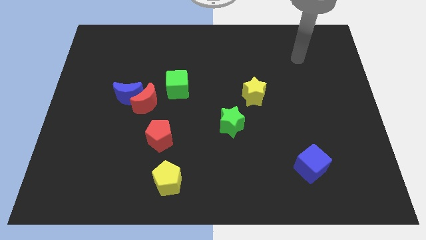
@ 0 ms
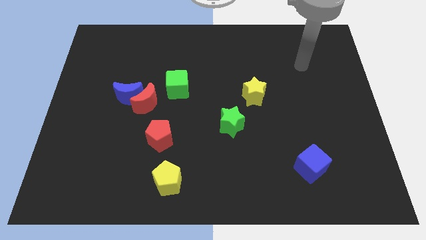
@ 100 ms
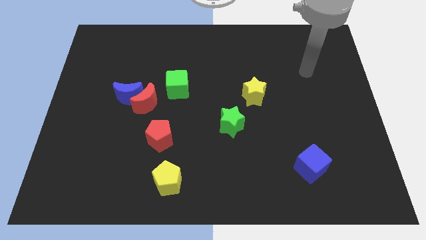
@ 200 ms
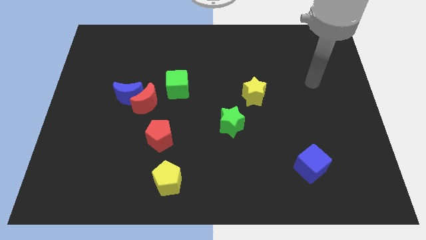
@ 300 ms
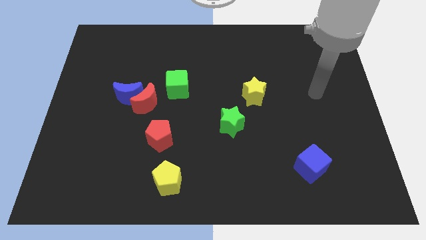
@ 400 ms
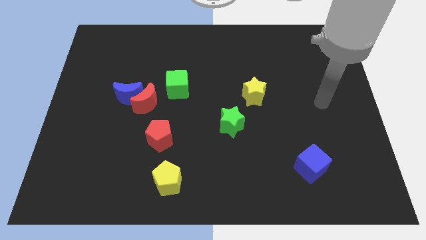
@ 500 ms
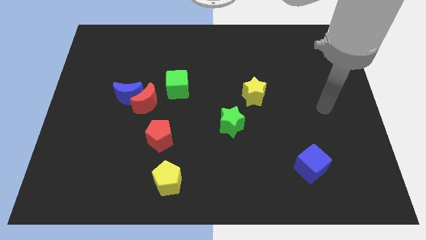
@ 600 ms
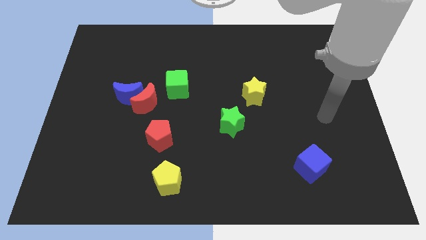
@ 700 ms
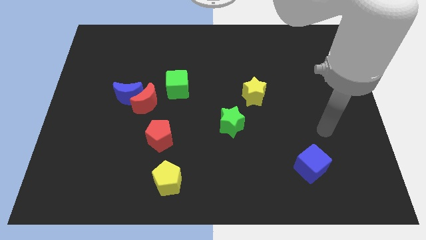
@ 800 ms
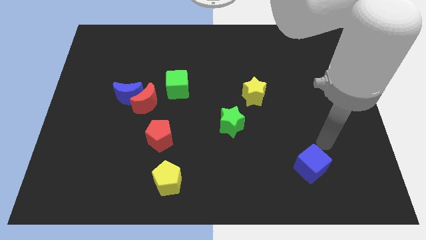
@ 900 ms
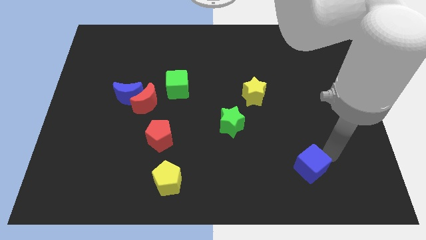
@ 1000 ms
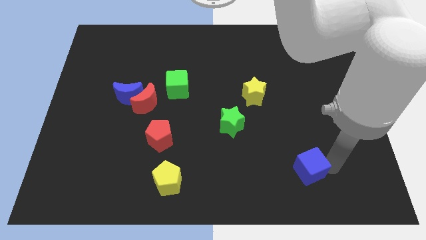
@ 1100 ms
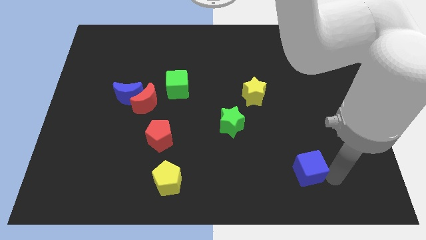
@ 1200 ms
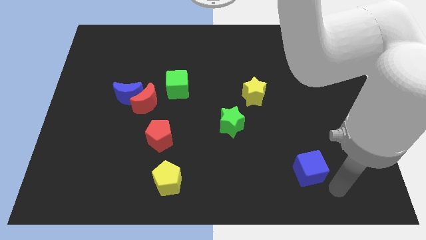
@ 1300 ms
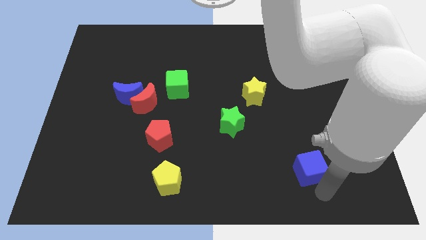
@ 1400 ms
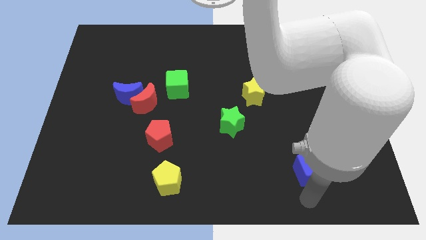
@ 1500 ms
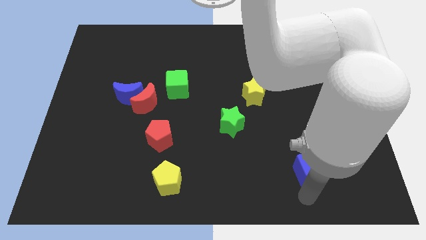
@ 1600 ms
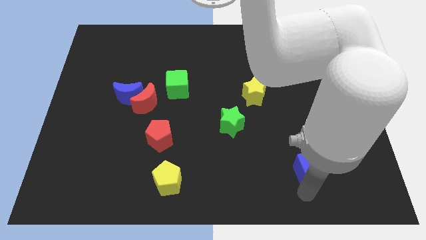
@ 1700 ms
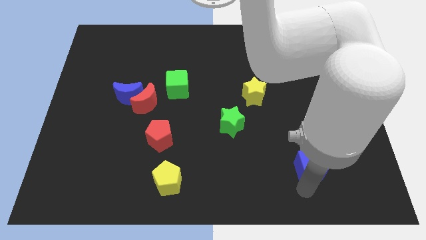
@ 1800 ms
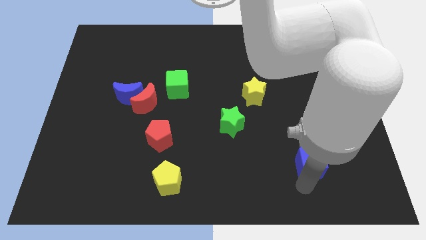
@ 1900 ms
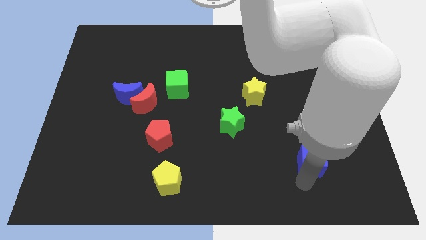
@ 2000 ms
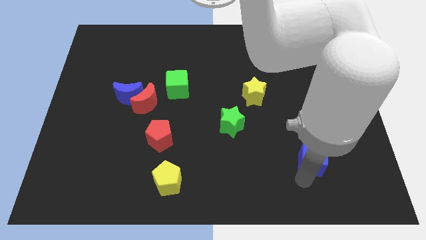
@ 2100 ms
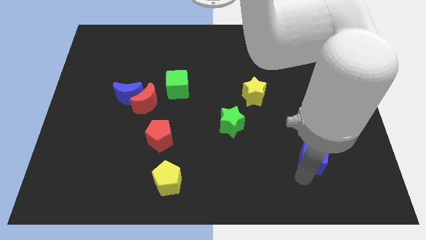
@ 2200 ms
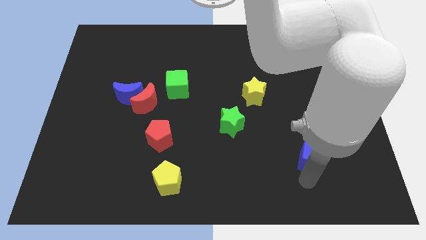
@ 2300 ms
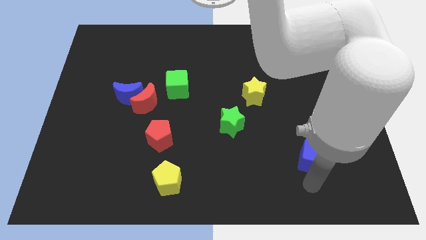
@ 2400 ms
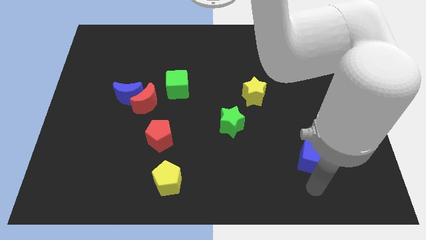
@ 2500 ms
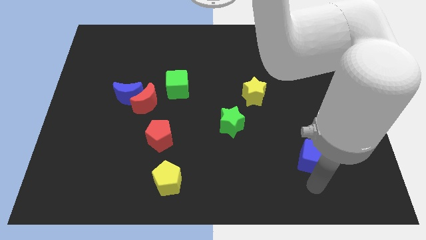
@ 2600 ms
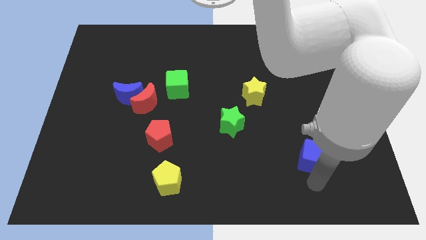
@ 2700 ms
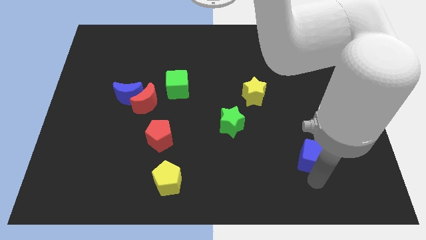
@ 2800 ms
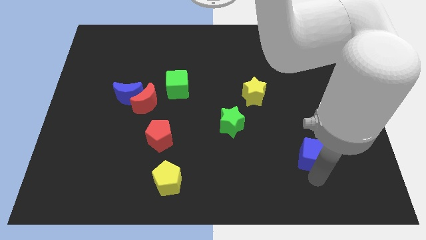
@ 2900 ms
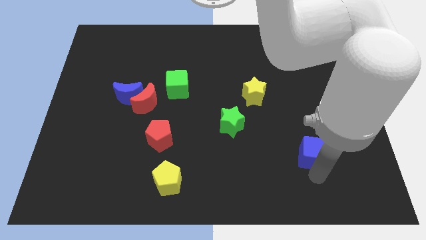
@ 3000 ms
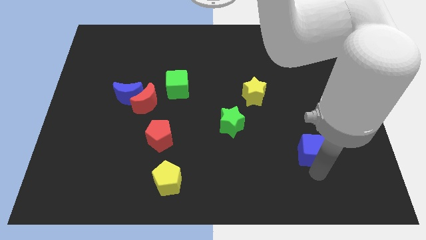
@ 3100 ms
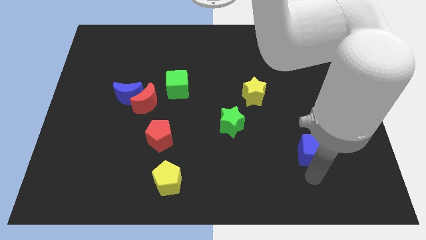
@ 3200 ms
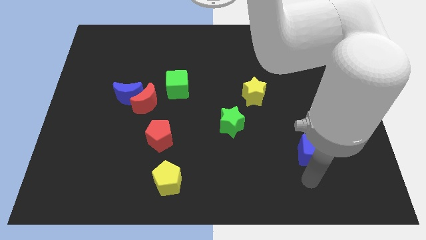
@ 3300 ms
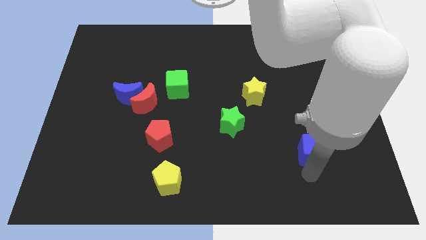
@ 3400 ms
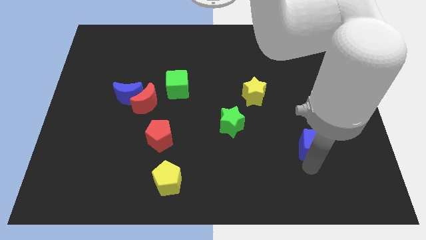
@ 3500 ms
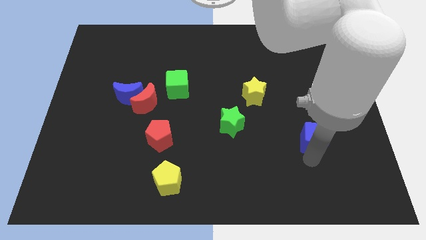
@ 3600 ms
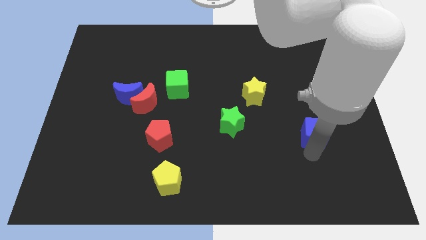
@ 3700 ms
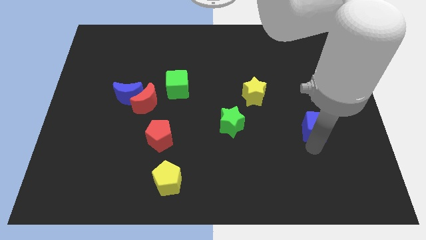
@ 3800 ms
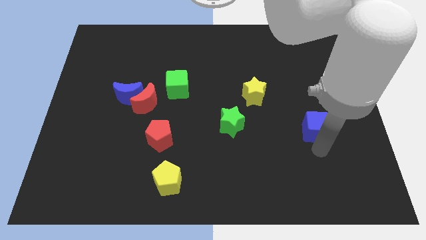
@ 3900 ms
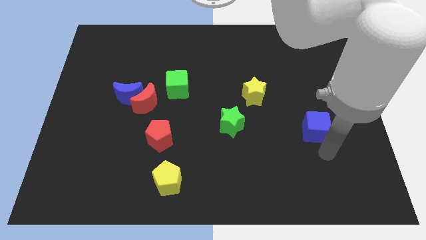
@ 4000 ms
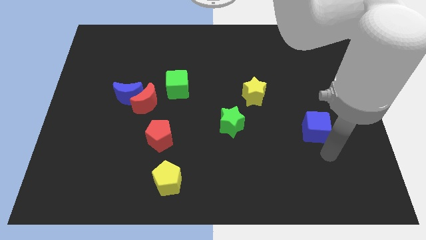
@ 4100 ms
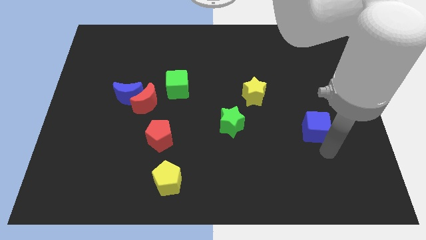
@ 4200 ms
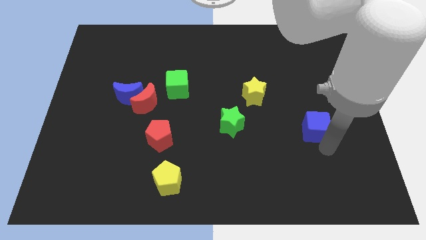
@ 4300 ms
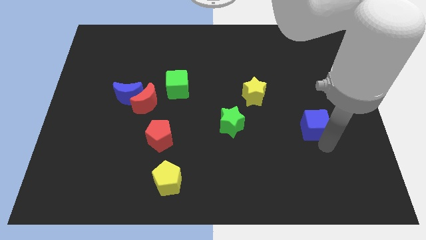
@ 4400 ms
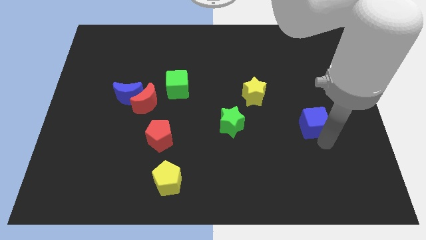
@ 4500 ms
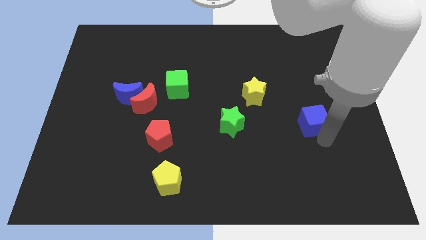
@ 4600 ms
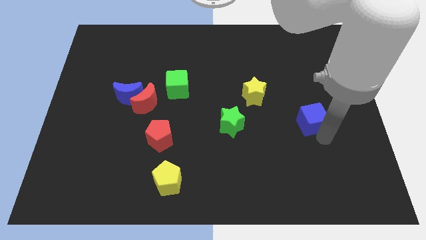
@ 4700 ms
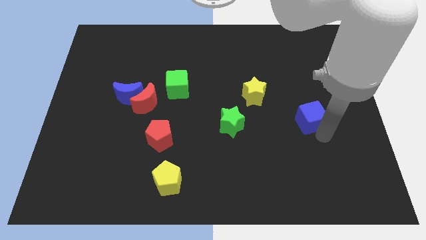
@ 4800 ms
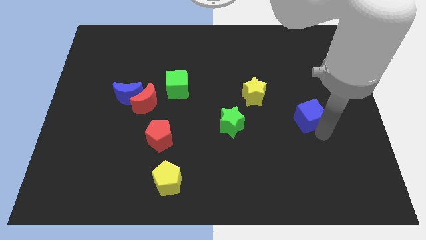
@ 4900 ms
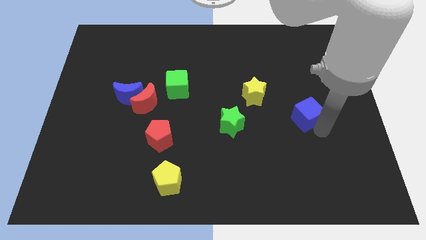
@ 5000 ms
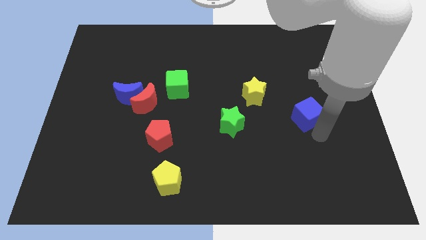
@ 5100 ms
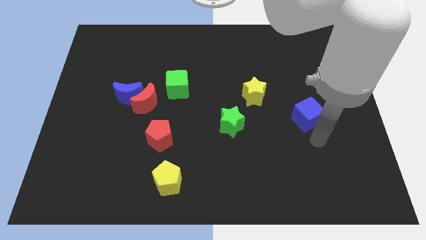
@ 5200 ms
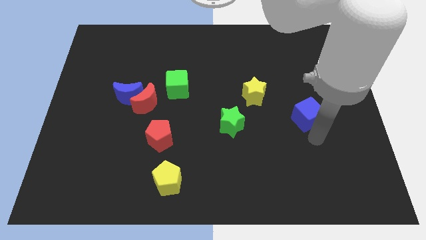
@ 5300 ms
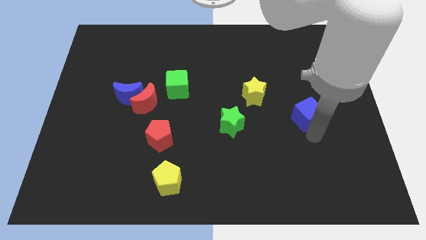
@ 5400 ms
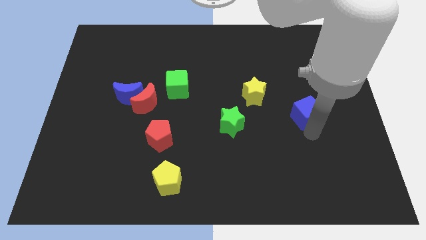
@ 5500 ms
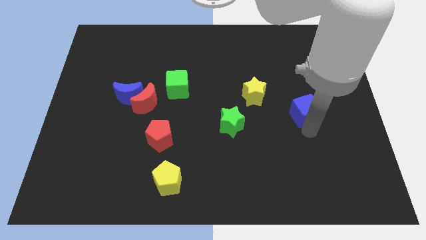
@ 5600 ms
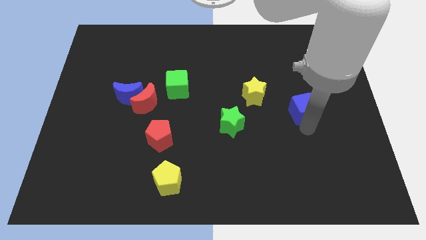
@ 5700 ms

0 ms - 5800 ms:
push the blue cube just right of the yellow star

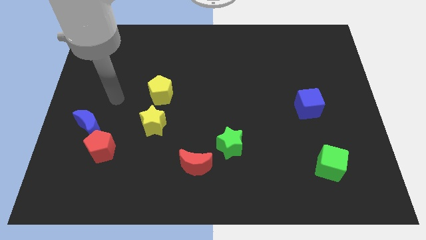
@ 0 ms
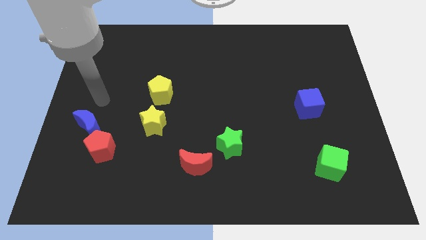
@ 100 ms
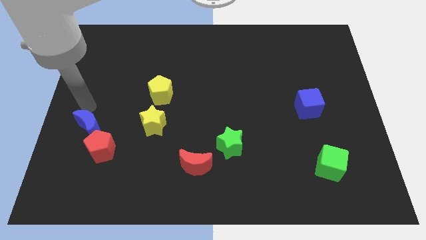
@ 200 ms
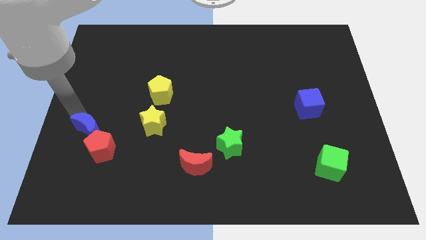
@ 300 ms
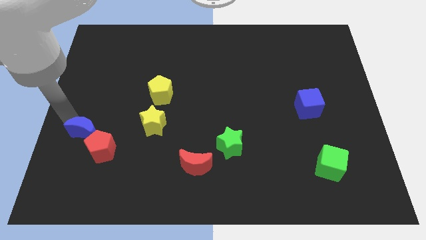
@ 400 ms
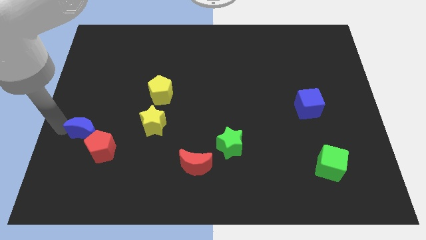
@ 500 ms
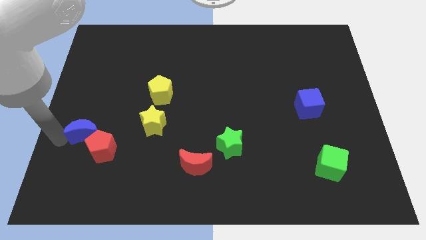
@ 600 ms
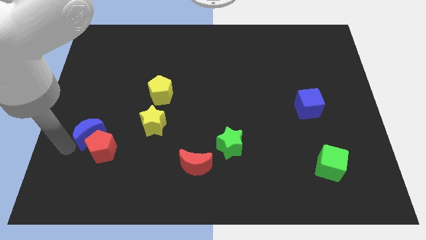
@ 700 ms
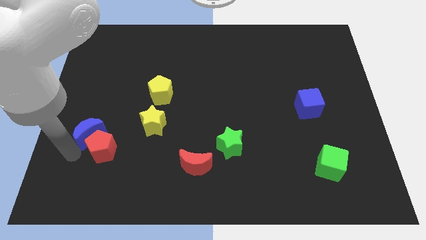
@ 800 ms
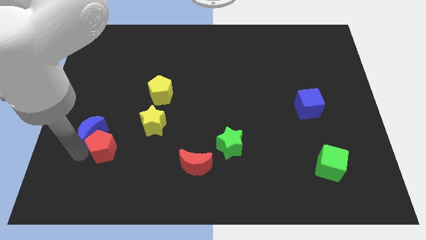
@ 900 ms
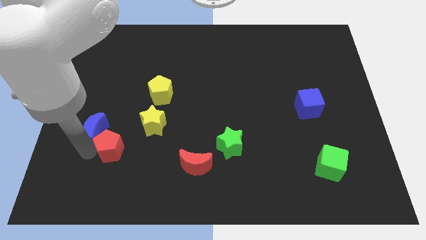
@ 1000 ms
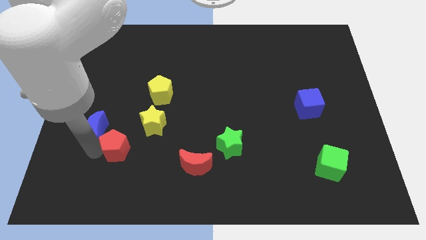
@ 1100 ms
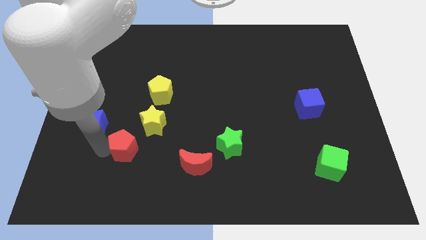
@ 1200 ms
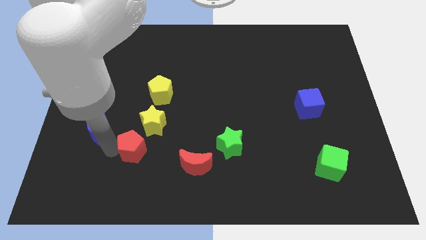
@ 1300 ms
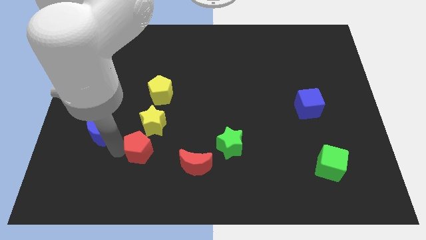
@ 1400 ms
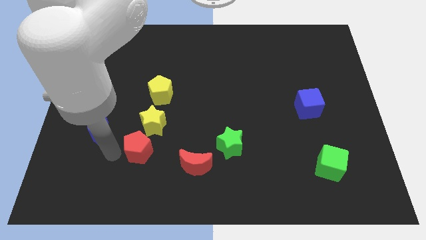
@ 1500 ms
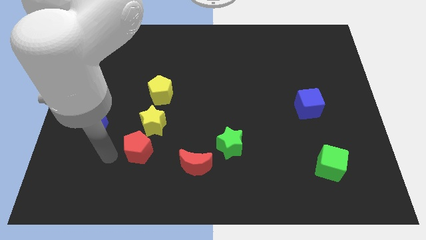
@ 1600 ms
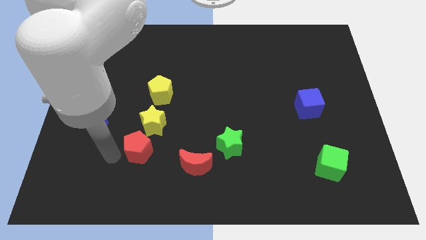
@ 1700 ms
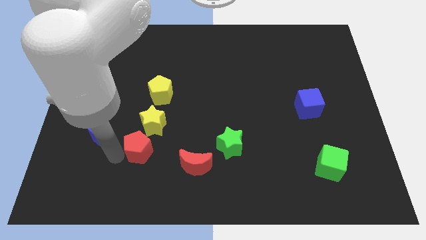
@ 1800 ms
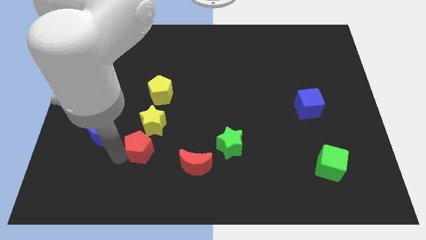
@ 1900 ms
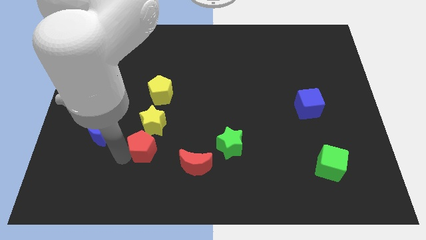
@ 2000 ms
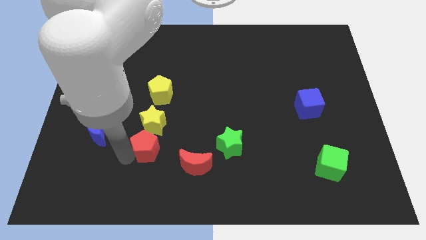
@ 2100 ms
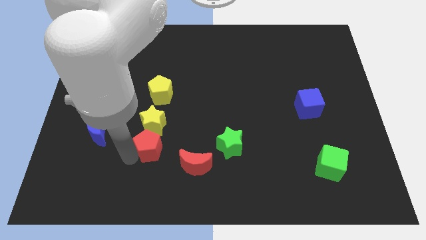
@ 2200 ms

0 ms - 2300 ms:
move the red pentagon to the top left side of the red moon
